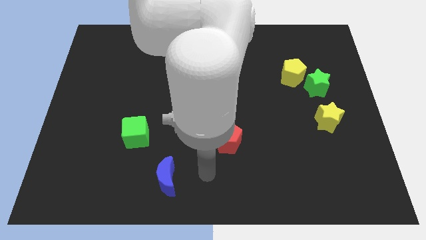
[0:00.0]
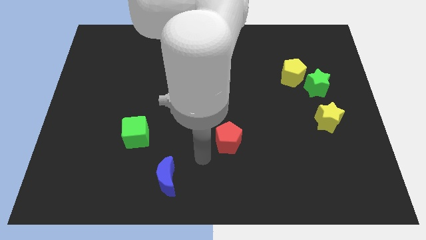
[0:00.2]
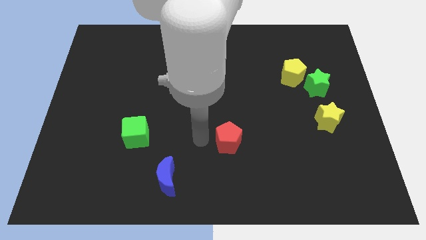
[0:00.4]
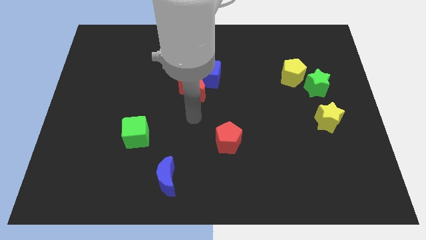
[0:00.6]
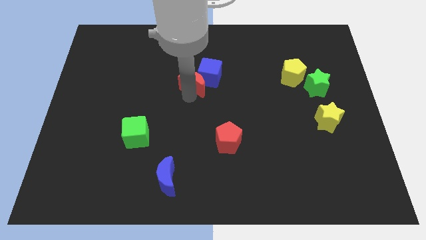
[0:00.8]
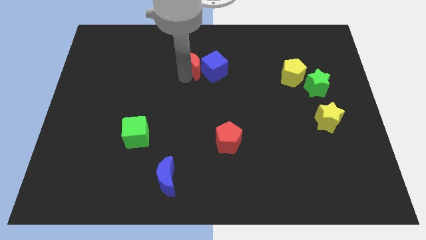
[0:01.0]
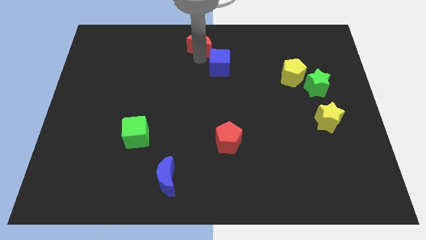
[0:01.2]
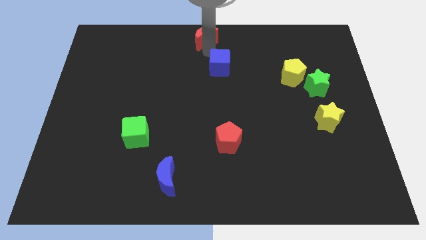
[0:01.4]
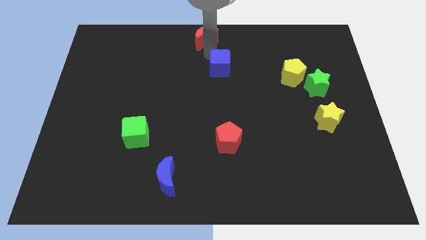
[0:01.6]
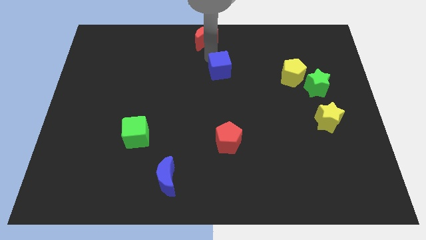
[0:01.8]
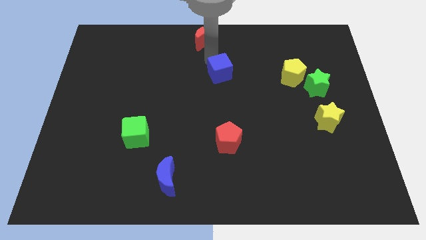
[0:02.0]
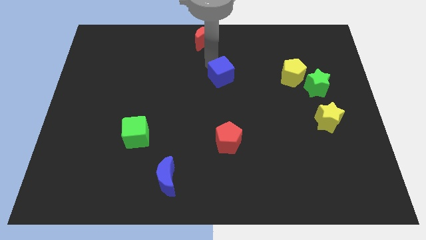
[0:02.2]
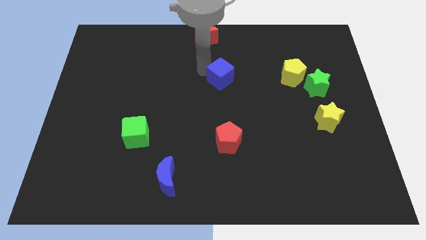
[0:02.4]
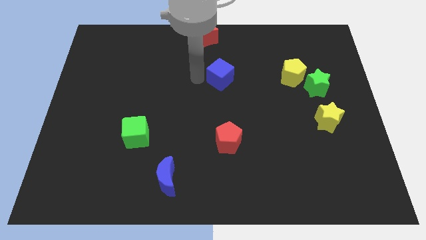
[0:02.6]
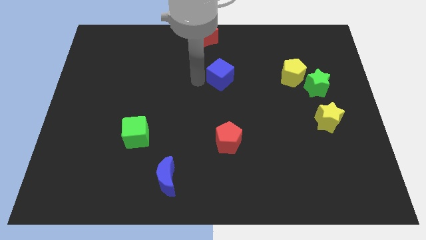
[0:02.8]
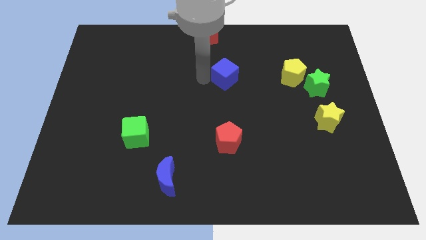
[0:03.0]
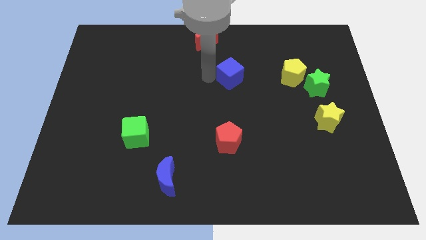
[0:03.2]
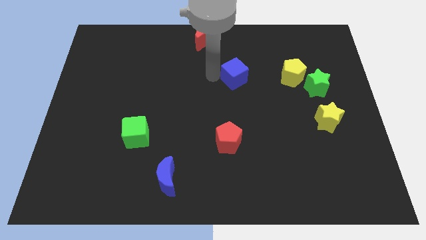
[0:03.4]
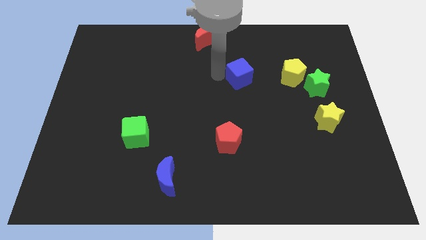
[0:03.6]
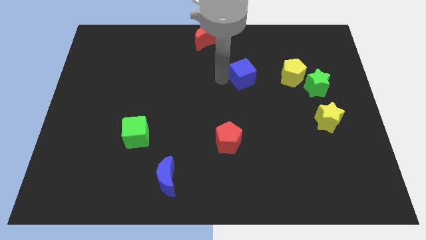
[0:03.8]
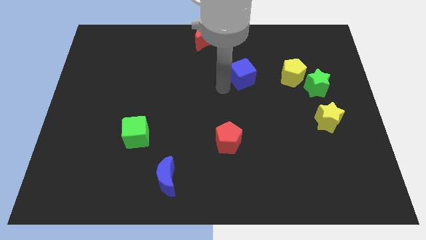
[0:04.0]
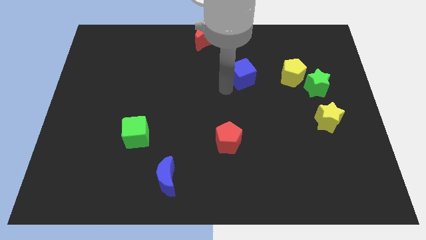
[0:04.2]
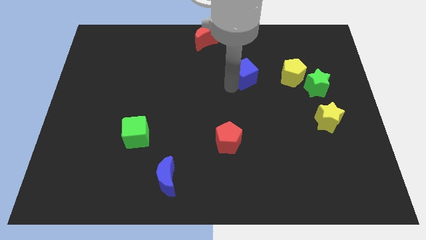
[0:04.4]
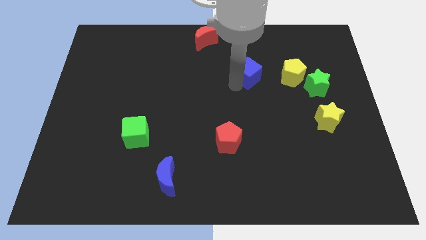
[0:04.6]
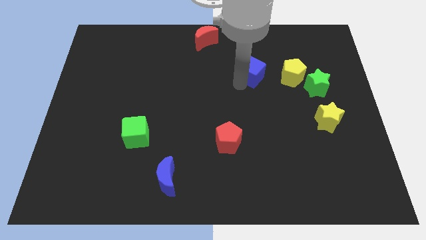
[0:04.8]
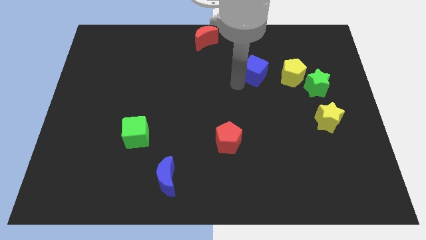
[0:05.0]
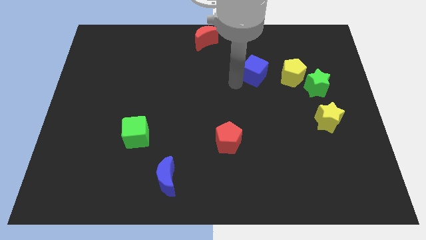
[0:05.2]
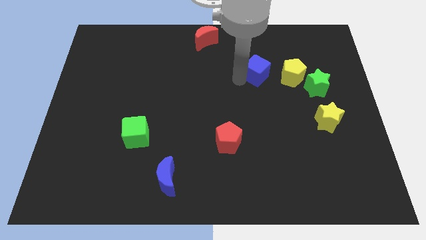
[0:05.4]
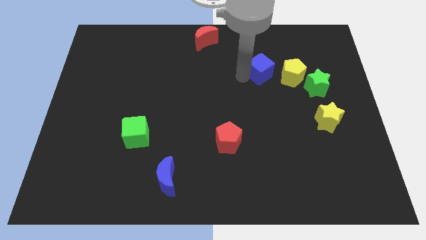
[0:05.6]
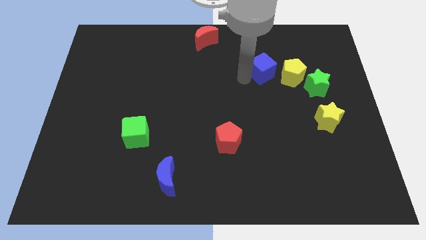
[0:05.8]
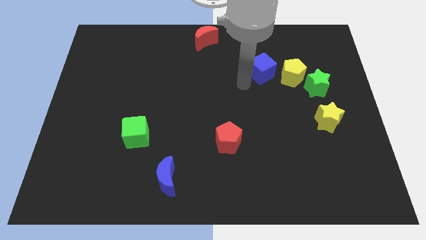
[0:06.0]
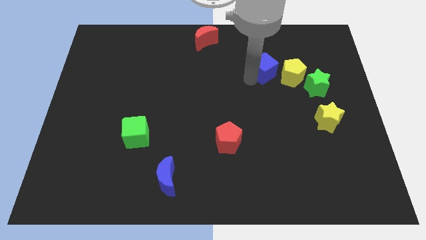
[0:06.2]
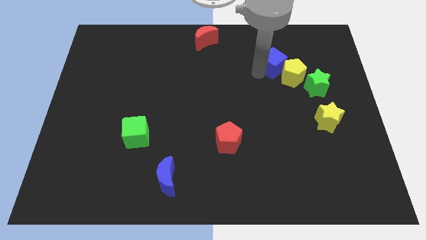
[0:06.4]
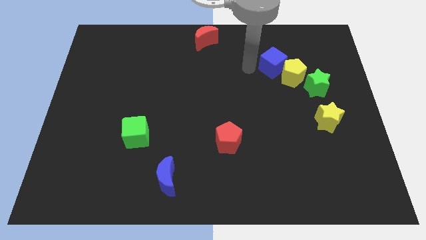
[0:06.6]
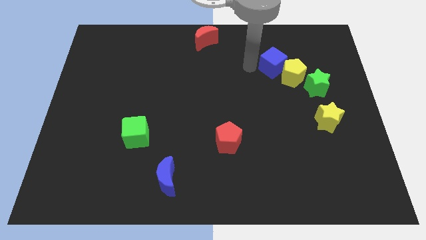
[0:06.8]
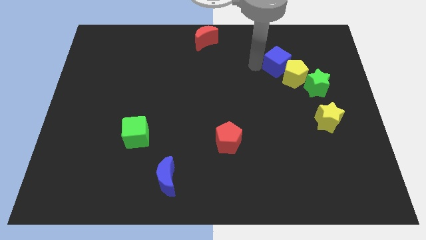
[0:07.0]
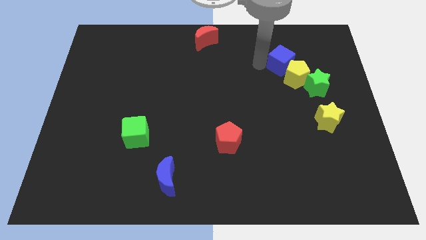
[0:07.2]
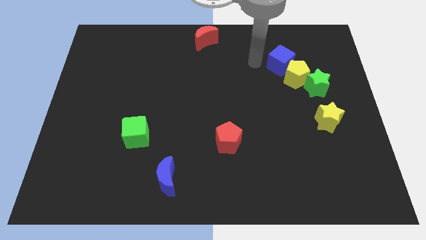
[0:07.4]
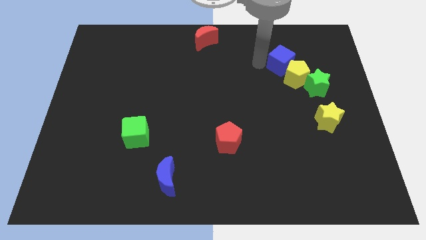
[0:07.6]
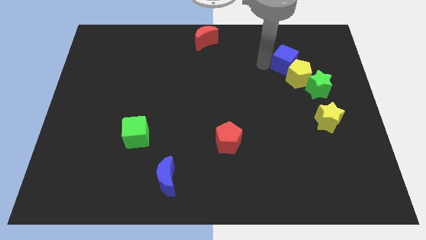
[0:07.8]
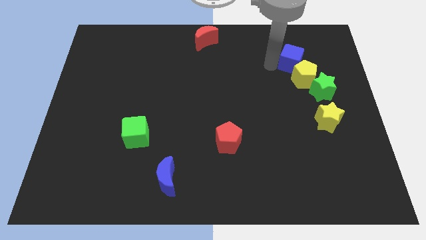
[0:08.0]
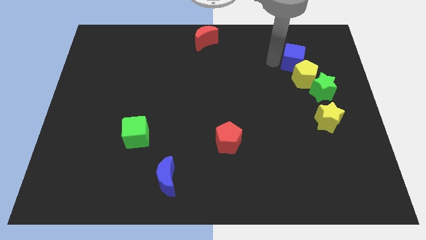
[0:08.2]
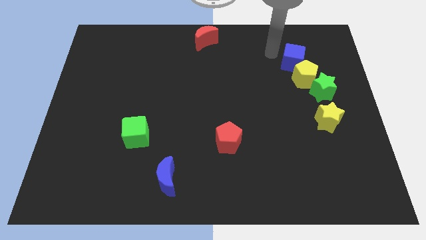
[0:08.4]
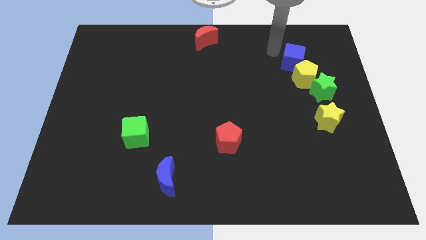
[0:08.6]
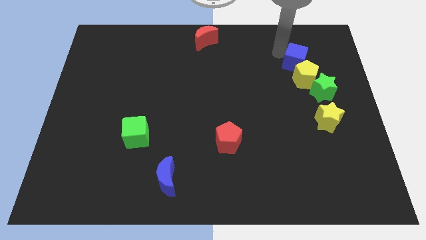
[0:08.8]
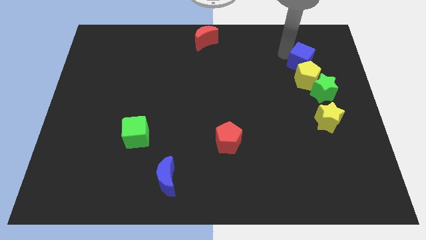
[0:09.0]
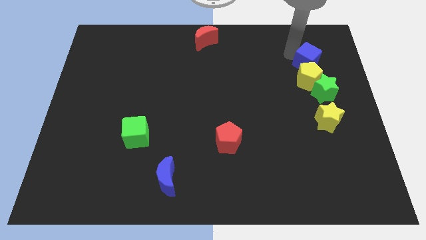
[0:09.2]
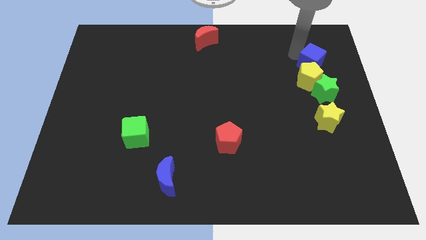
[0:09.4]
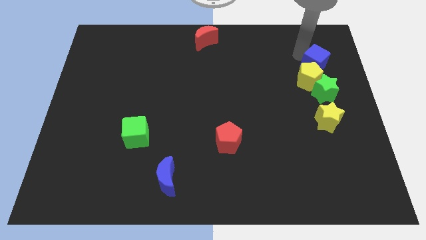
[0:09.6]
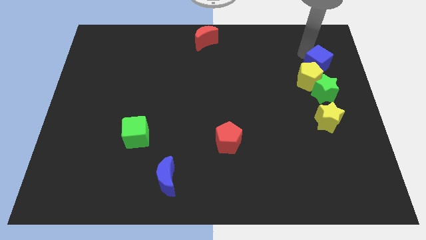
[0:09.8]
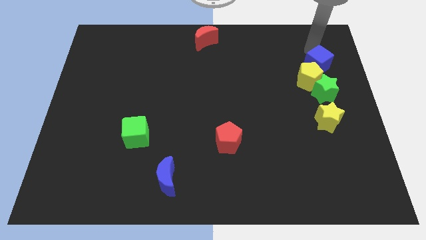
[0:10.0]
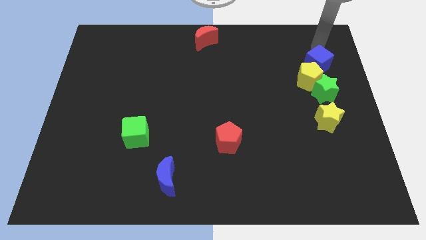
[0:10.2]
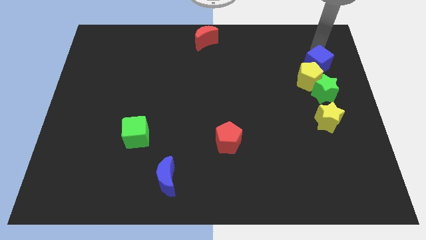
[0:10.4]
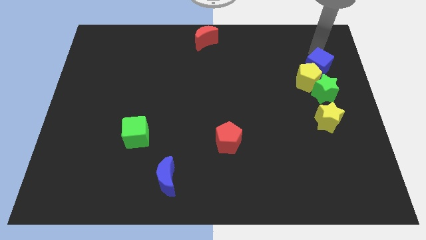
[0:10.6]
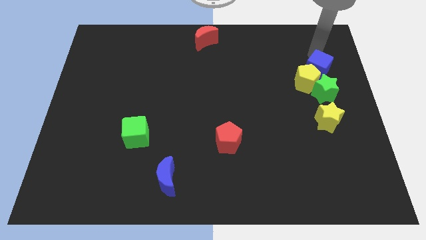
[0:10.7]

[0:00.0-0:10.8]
move the blue cube to the top of the yellow star

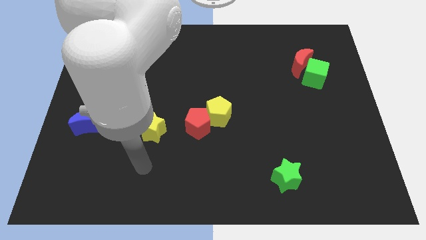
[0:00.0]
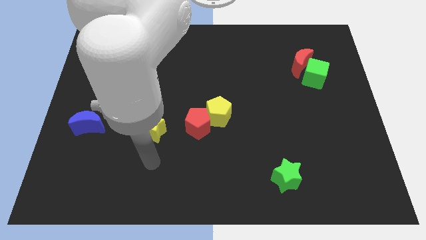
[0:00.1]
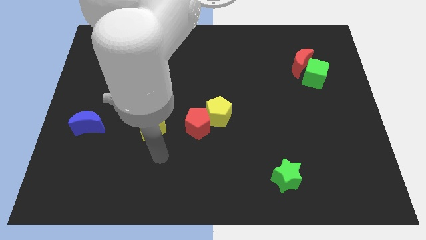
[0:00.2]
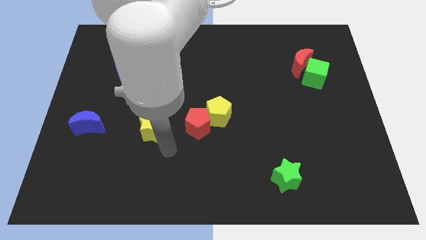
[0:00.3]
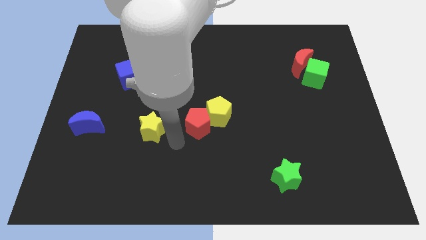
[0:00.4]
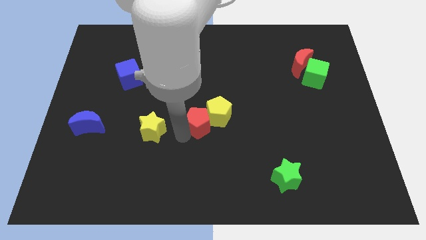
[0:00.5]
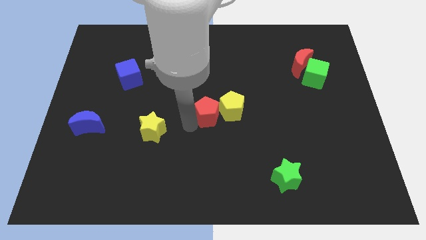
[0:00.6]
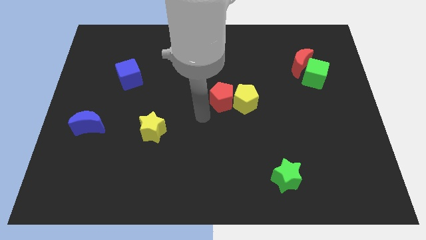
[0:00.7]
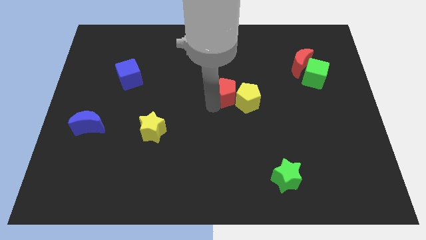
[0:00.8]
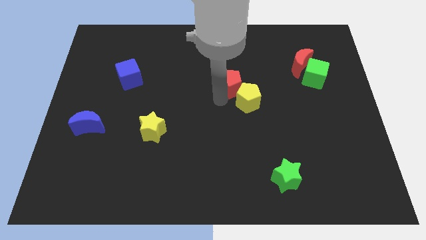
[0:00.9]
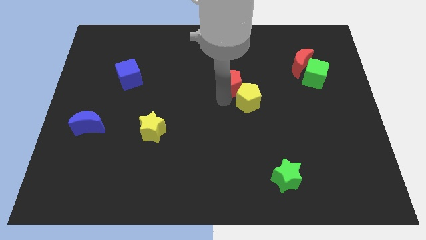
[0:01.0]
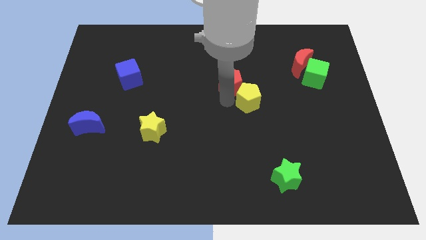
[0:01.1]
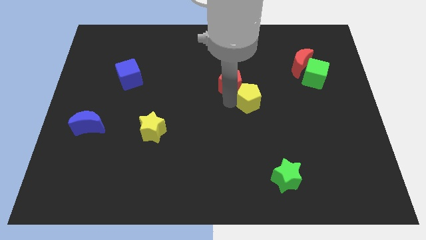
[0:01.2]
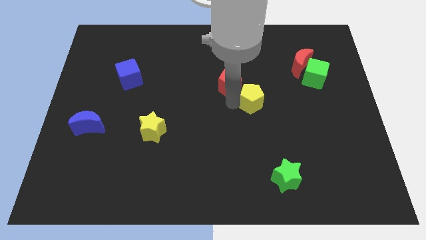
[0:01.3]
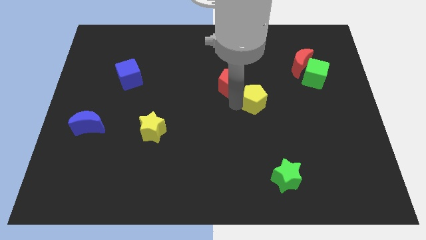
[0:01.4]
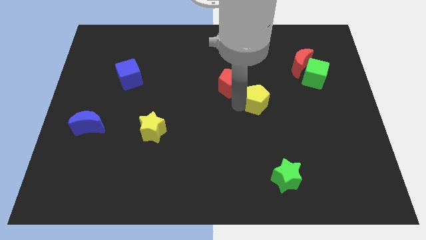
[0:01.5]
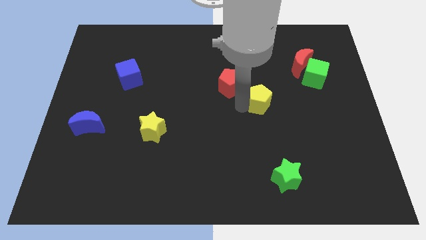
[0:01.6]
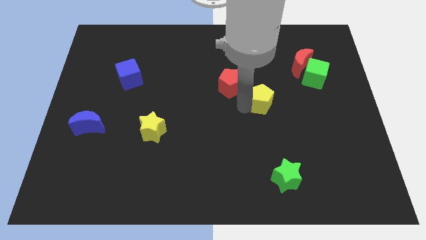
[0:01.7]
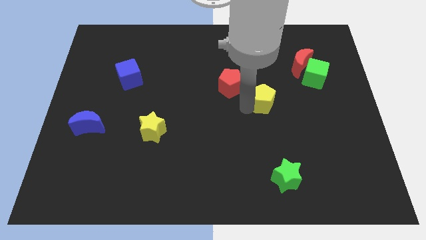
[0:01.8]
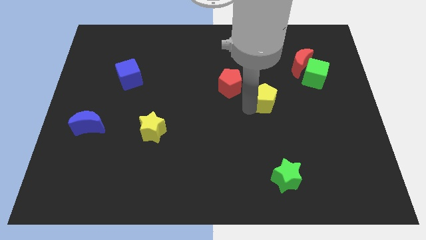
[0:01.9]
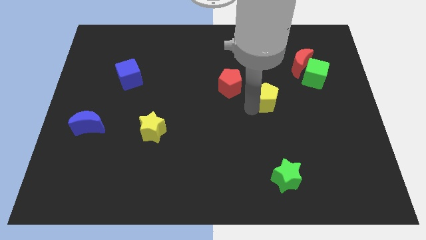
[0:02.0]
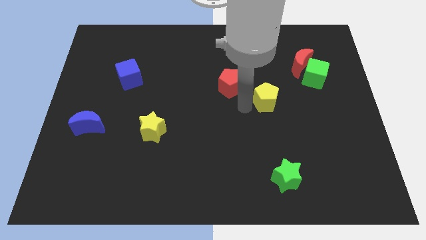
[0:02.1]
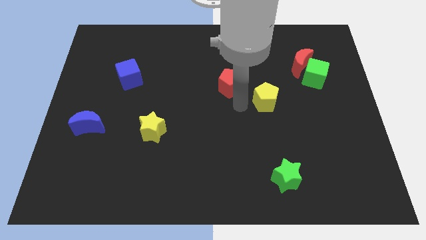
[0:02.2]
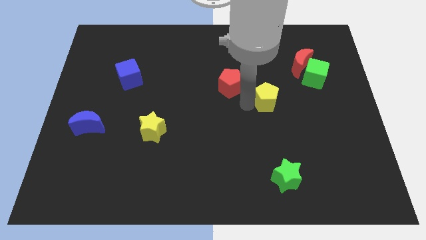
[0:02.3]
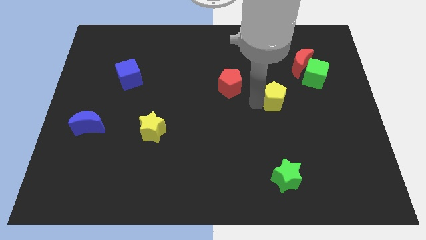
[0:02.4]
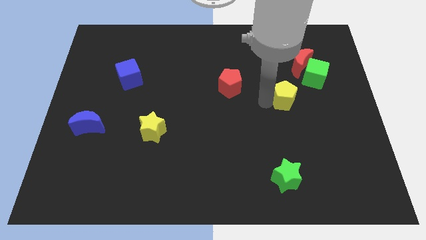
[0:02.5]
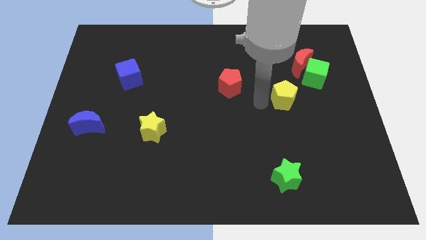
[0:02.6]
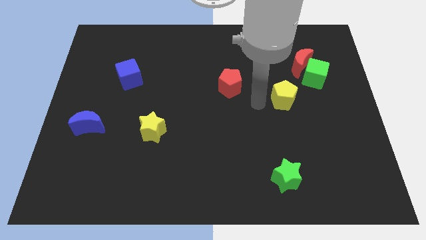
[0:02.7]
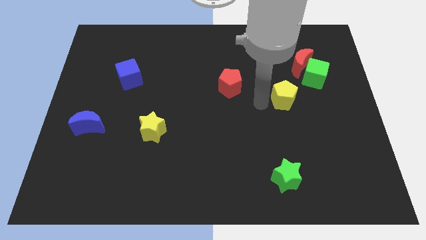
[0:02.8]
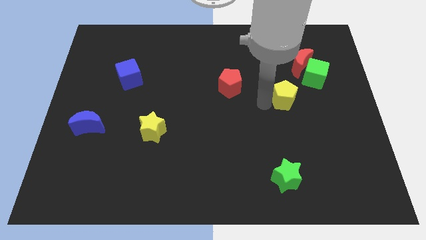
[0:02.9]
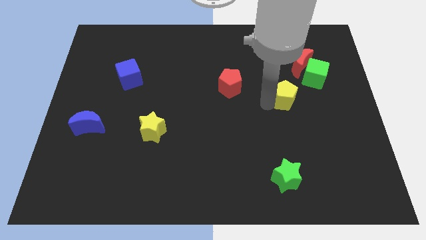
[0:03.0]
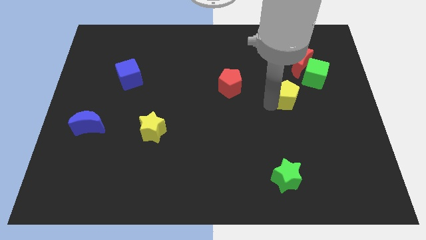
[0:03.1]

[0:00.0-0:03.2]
push the yellow pentagon to the bottom side of the red moon
